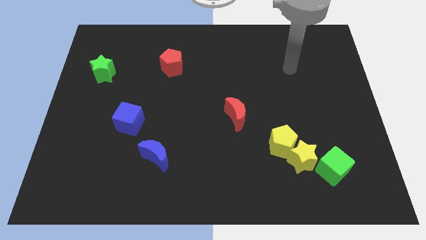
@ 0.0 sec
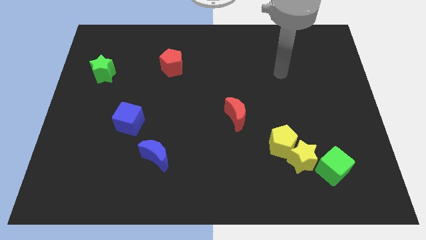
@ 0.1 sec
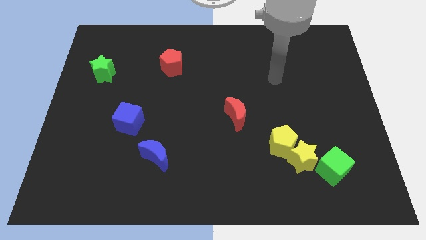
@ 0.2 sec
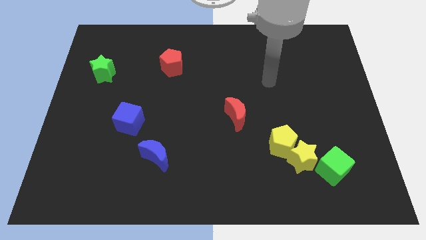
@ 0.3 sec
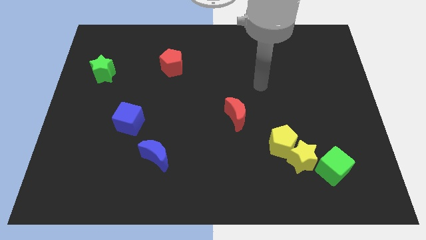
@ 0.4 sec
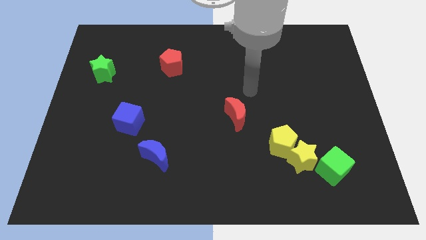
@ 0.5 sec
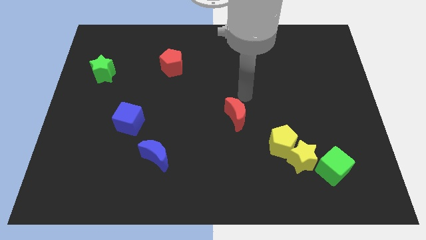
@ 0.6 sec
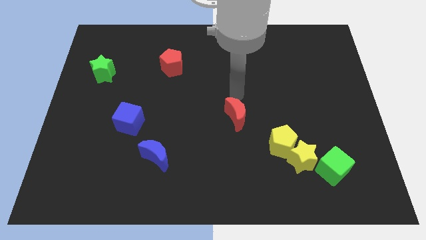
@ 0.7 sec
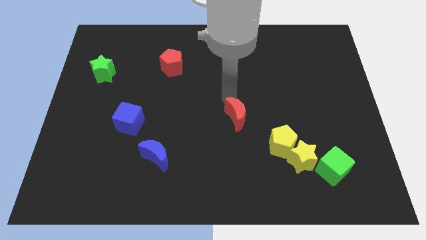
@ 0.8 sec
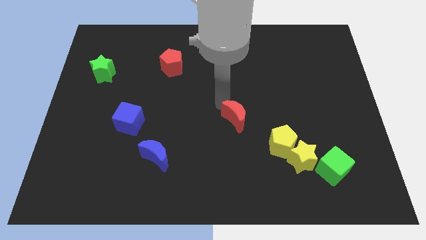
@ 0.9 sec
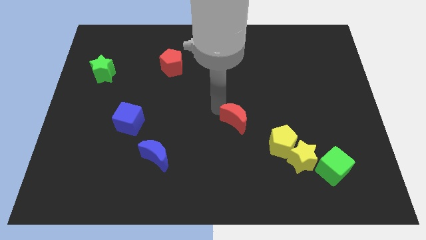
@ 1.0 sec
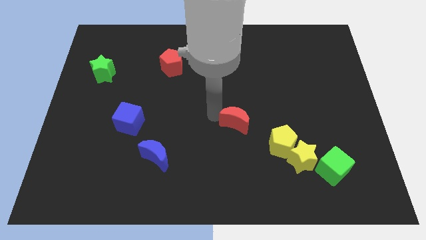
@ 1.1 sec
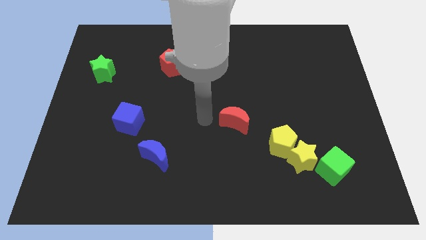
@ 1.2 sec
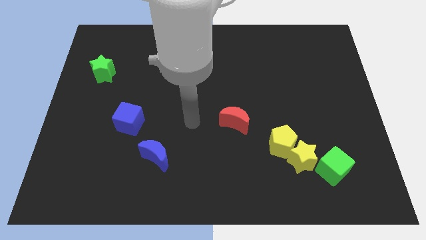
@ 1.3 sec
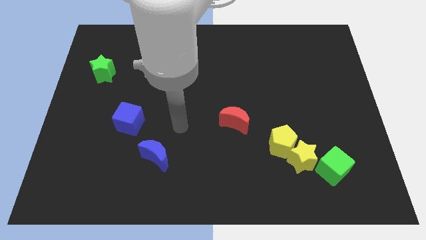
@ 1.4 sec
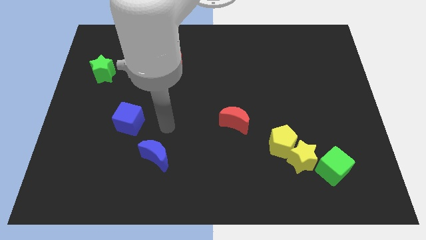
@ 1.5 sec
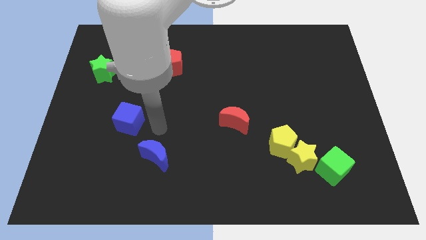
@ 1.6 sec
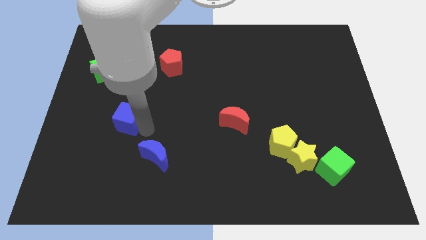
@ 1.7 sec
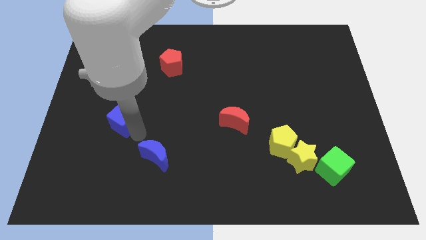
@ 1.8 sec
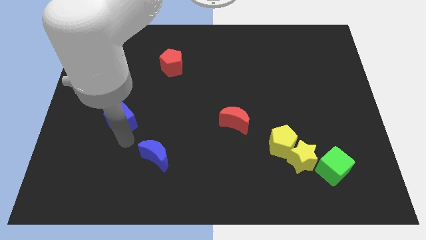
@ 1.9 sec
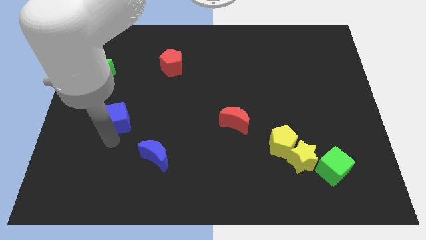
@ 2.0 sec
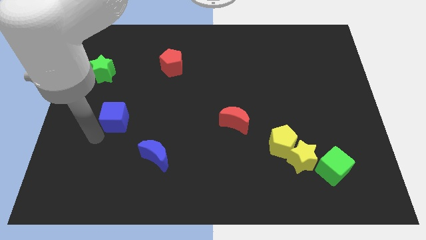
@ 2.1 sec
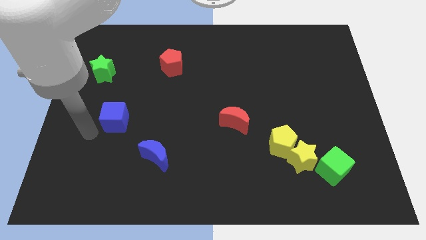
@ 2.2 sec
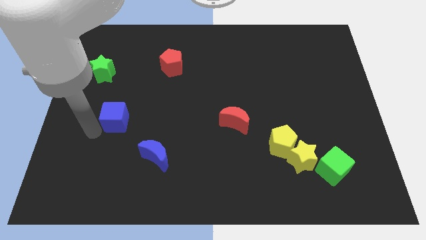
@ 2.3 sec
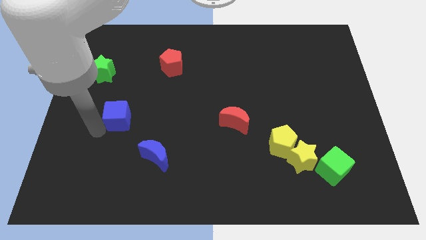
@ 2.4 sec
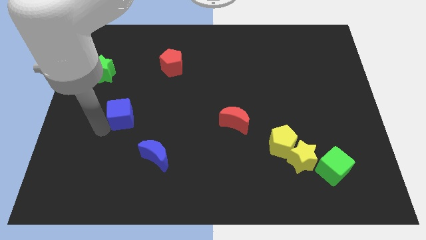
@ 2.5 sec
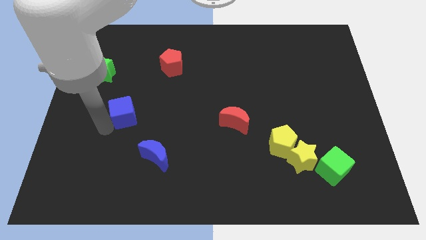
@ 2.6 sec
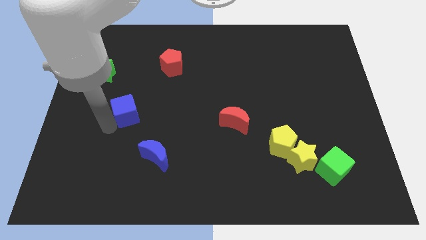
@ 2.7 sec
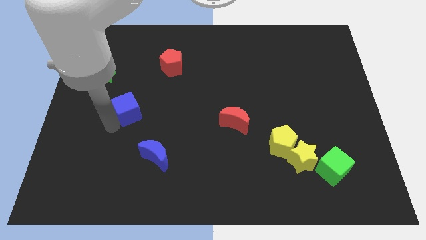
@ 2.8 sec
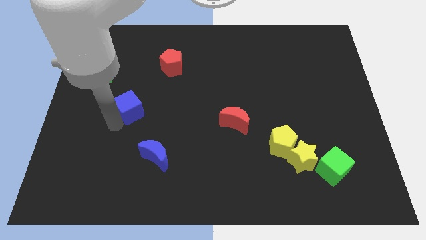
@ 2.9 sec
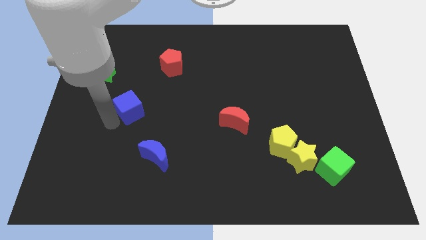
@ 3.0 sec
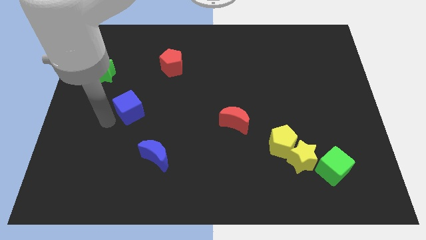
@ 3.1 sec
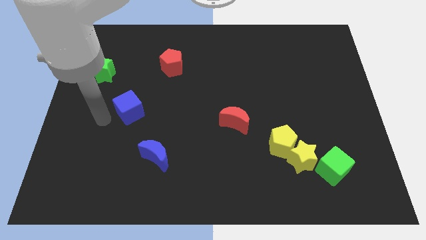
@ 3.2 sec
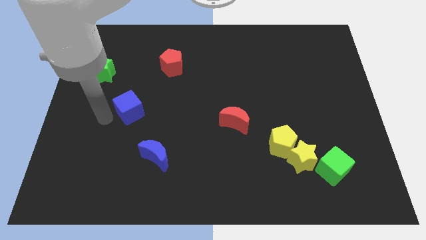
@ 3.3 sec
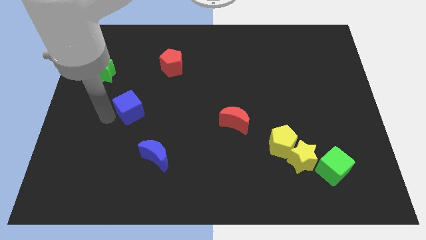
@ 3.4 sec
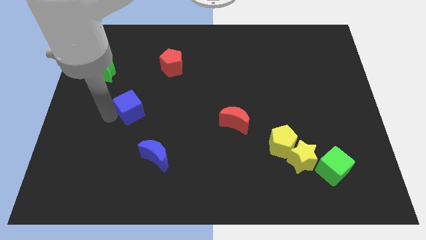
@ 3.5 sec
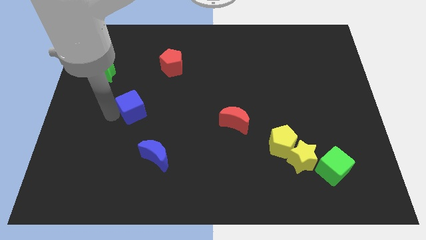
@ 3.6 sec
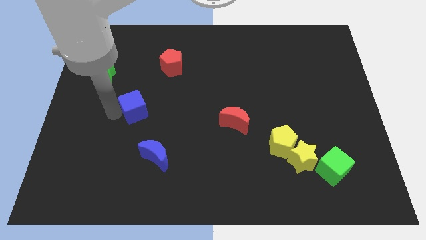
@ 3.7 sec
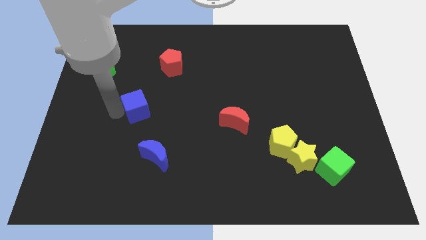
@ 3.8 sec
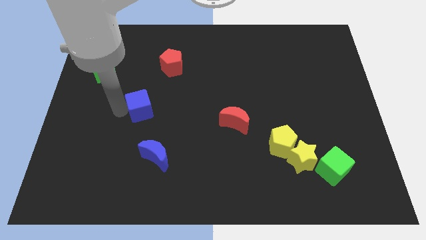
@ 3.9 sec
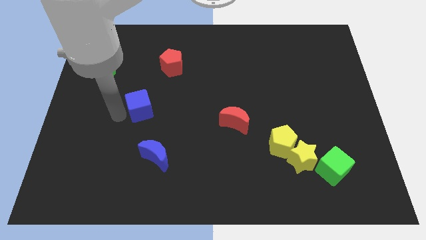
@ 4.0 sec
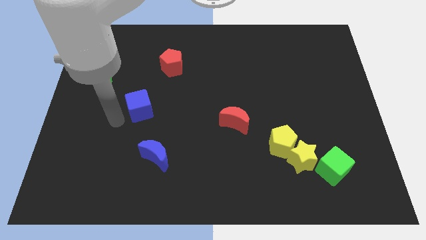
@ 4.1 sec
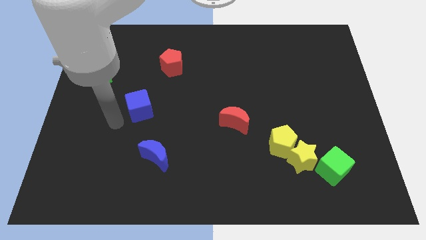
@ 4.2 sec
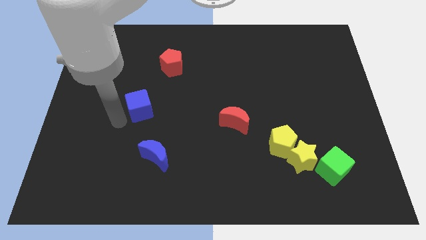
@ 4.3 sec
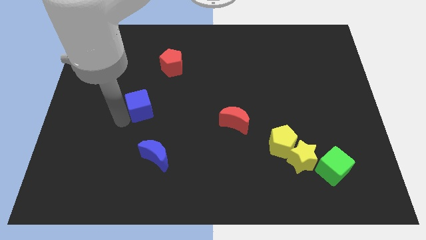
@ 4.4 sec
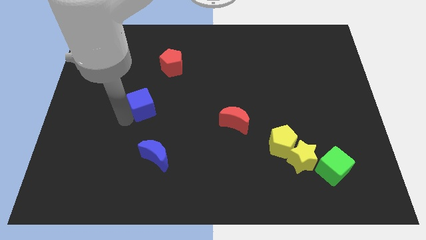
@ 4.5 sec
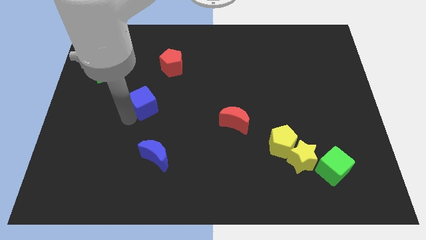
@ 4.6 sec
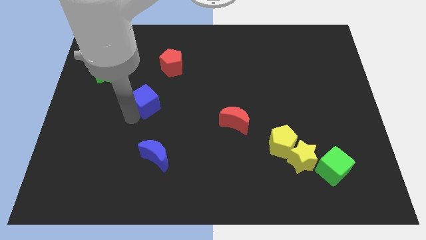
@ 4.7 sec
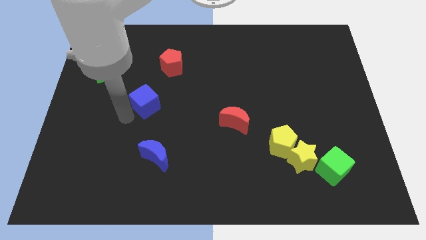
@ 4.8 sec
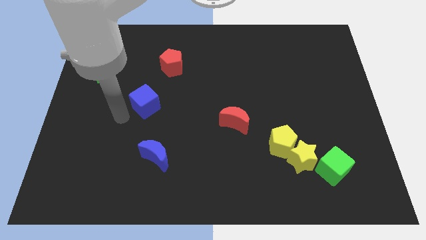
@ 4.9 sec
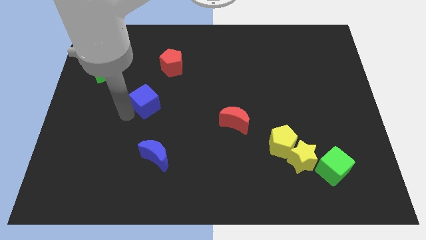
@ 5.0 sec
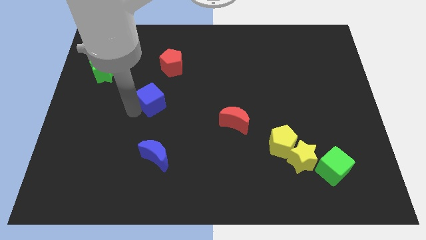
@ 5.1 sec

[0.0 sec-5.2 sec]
move the blue cube slightly up and right

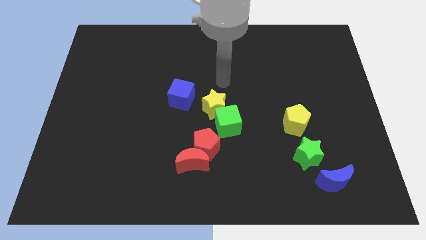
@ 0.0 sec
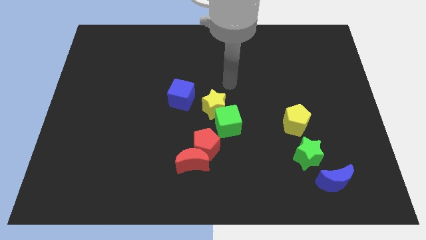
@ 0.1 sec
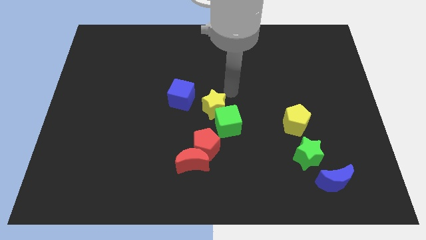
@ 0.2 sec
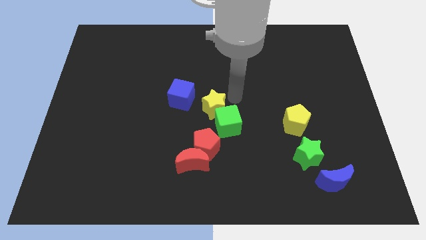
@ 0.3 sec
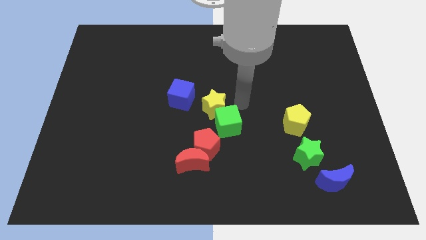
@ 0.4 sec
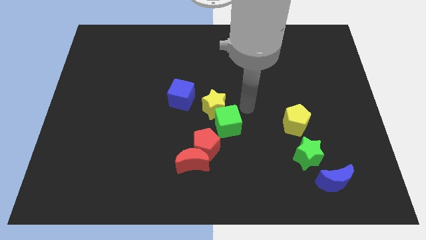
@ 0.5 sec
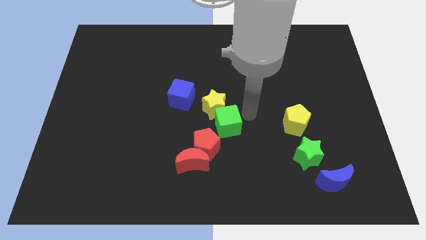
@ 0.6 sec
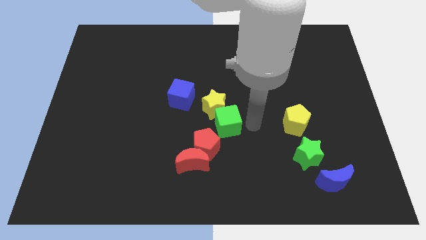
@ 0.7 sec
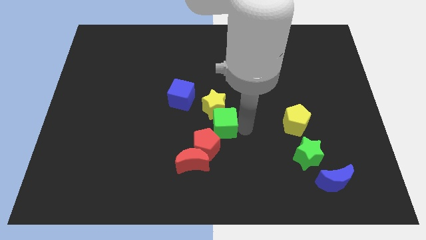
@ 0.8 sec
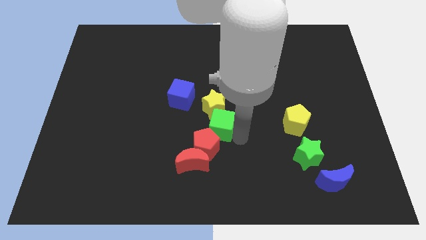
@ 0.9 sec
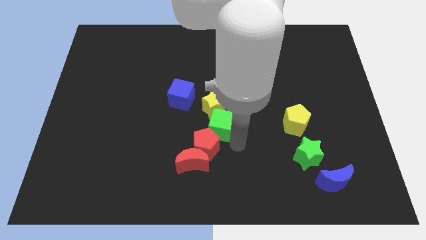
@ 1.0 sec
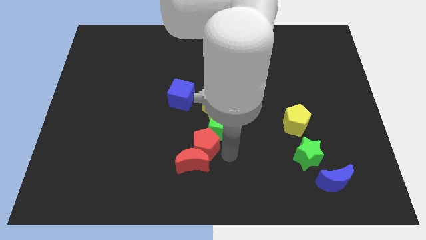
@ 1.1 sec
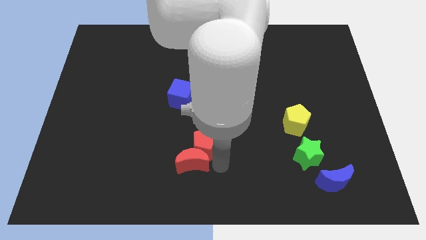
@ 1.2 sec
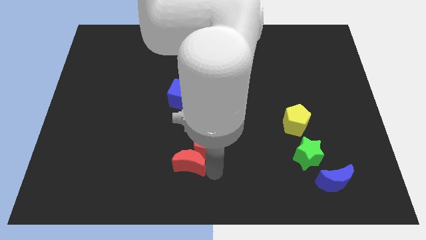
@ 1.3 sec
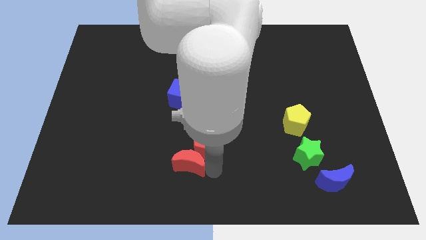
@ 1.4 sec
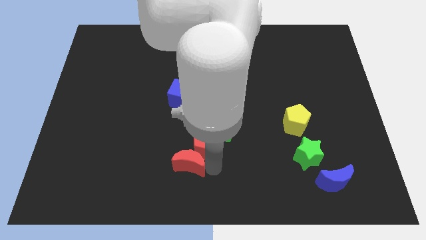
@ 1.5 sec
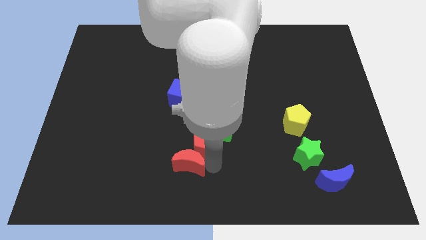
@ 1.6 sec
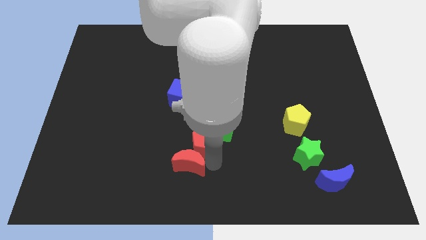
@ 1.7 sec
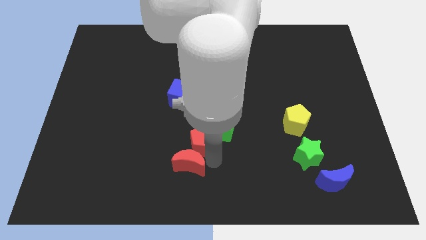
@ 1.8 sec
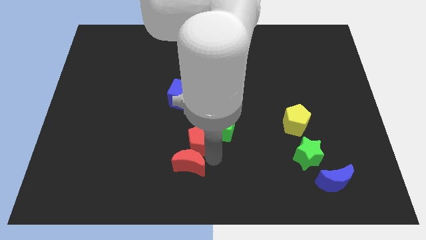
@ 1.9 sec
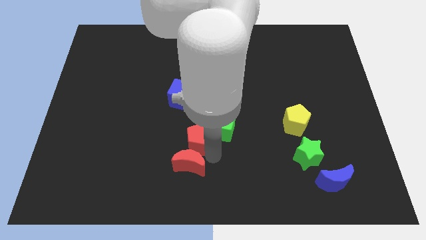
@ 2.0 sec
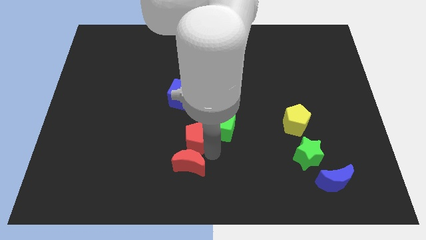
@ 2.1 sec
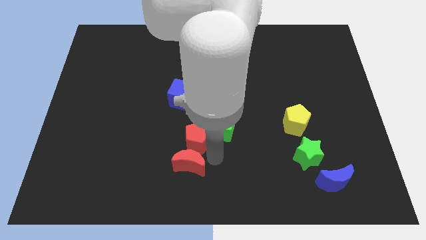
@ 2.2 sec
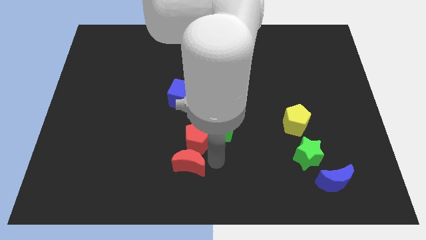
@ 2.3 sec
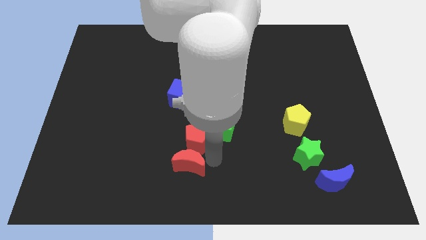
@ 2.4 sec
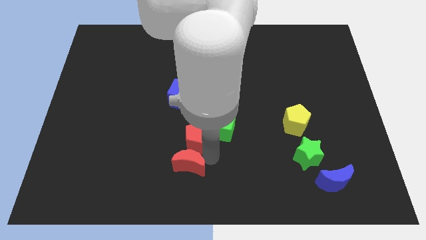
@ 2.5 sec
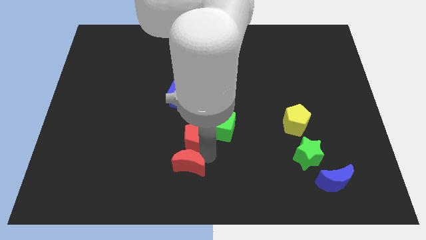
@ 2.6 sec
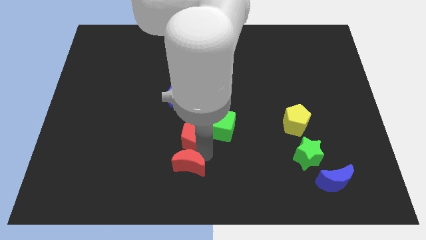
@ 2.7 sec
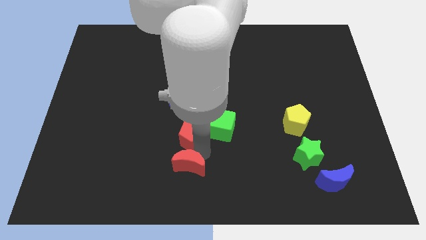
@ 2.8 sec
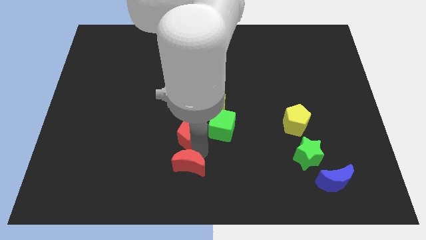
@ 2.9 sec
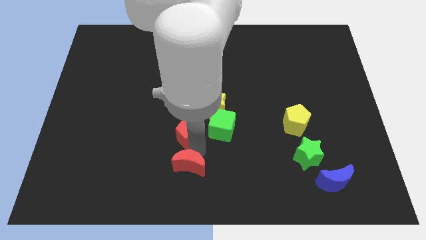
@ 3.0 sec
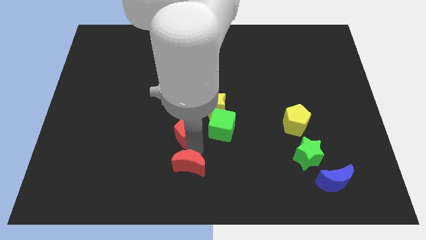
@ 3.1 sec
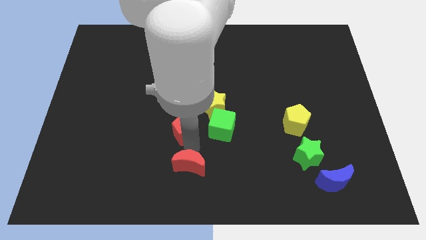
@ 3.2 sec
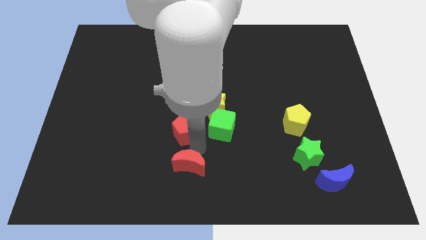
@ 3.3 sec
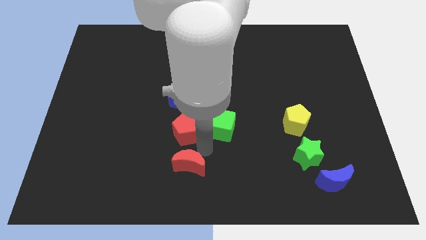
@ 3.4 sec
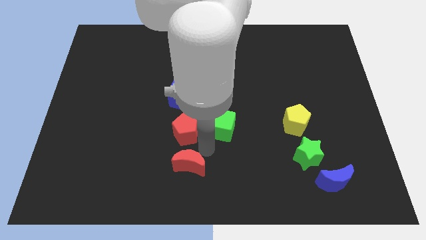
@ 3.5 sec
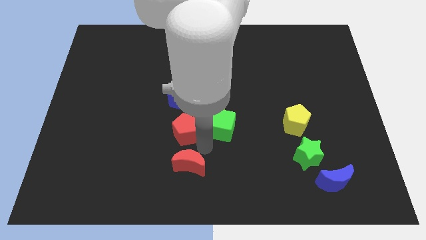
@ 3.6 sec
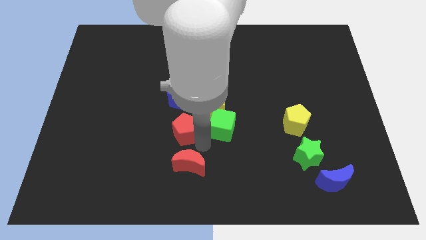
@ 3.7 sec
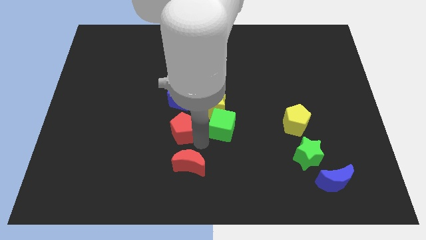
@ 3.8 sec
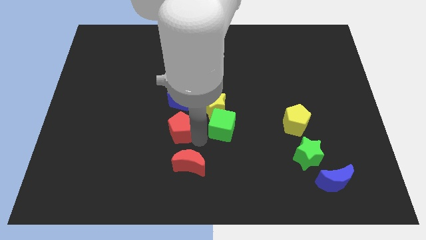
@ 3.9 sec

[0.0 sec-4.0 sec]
slightly push the red pentagon upwards and left diagonally
